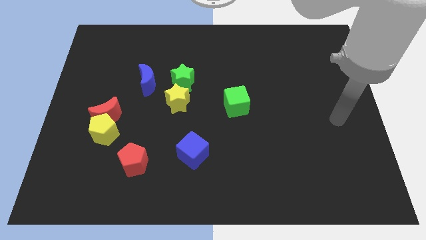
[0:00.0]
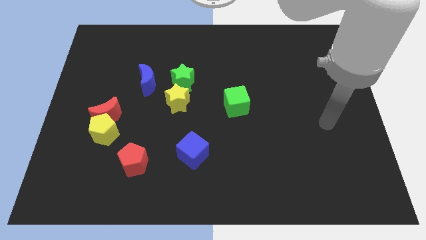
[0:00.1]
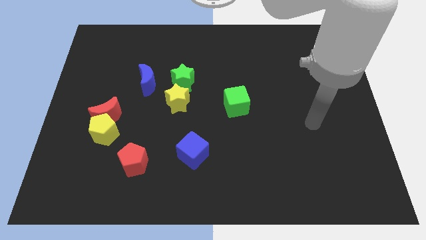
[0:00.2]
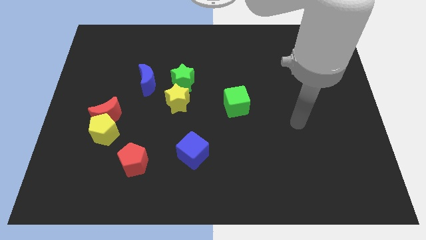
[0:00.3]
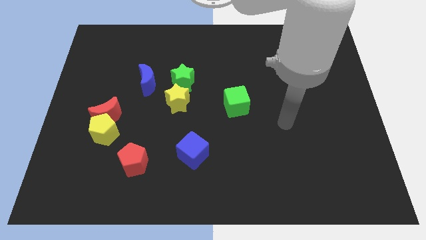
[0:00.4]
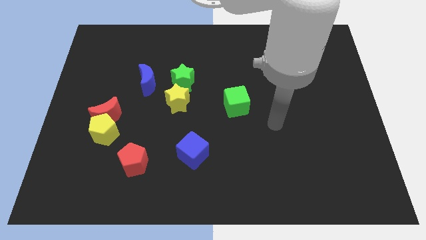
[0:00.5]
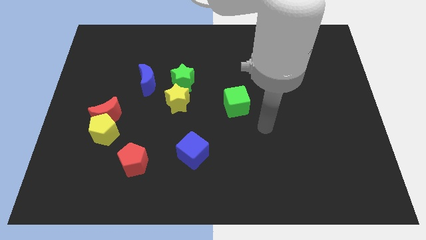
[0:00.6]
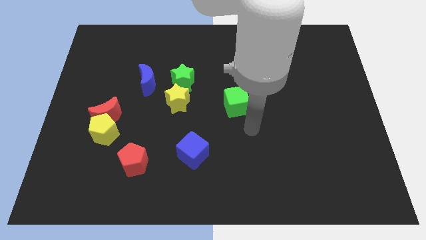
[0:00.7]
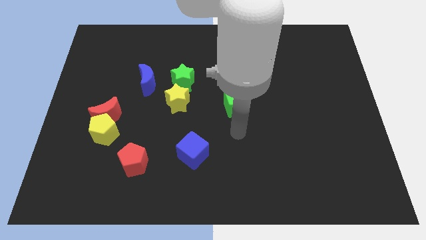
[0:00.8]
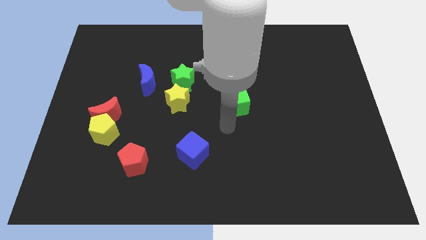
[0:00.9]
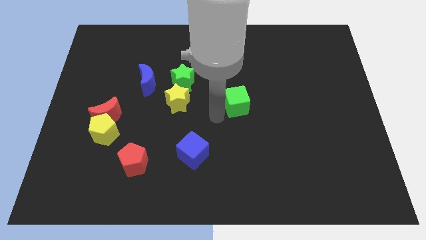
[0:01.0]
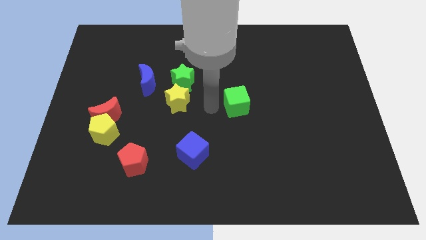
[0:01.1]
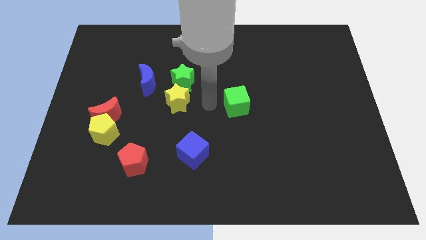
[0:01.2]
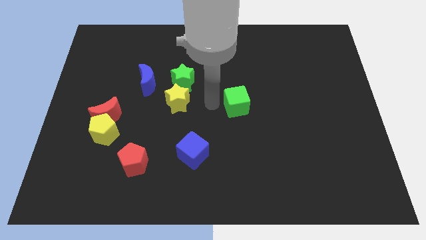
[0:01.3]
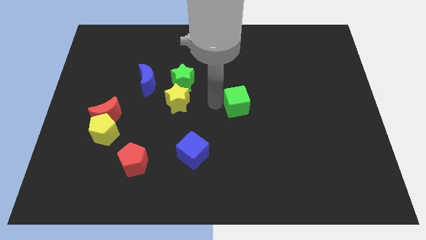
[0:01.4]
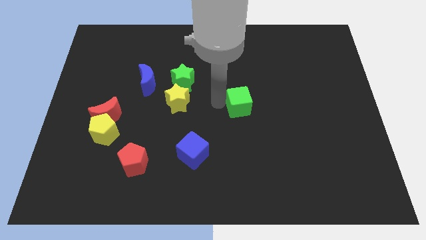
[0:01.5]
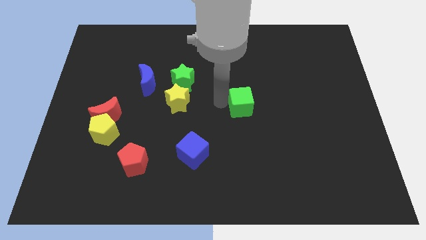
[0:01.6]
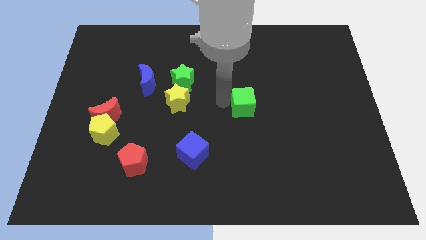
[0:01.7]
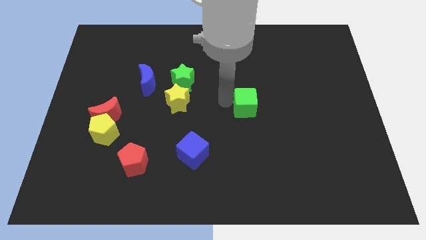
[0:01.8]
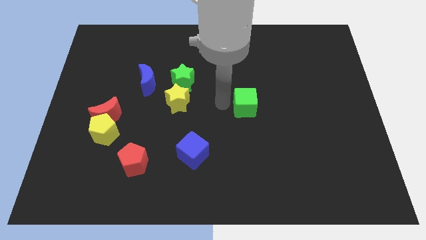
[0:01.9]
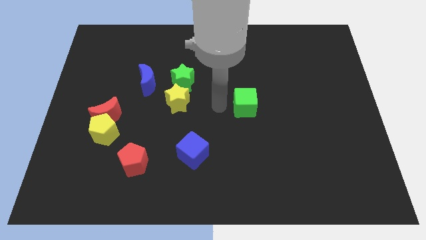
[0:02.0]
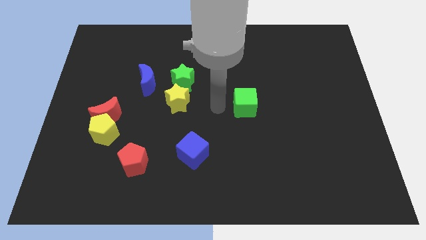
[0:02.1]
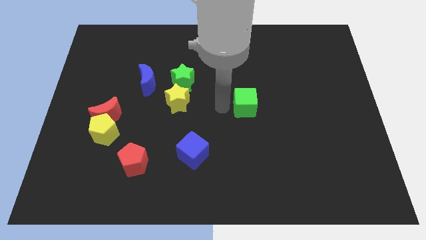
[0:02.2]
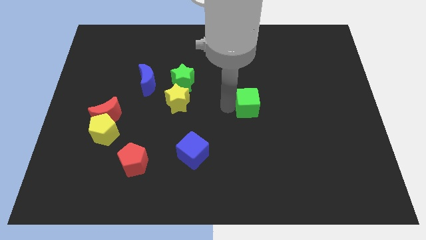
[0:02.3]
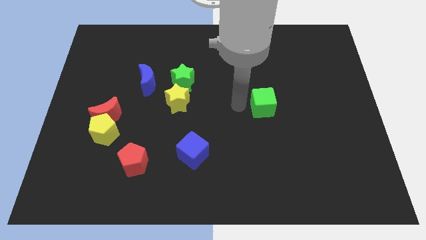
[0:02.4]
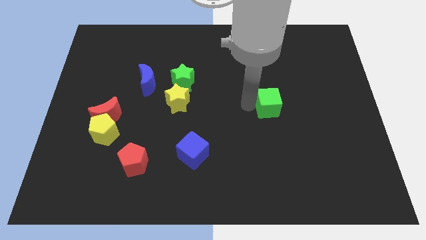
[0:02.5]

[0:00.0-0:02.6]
push the green cube slightly right

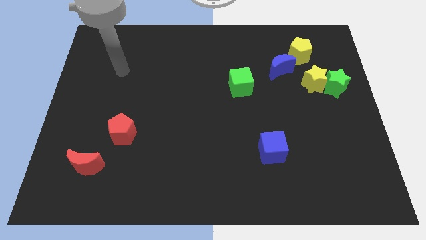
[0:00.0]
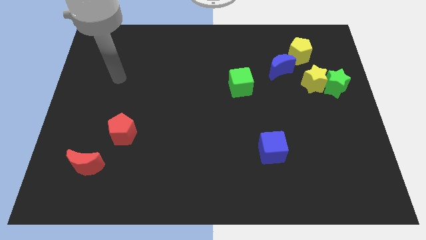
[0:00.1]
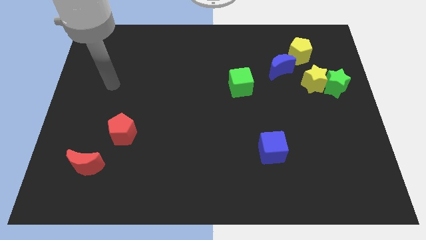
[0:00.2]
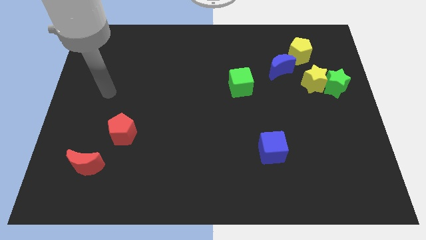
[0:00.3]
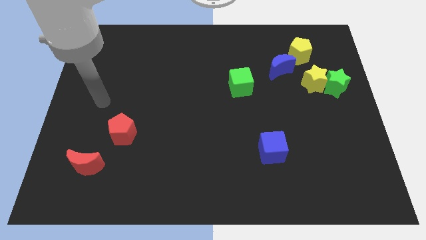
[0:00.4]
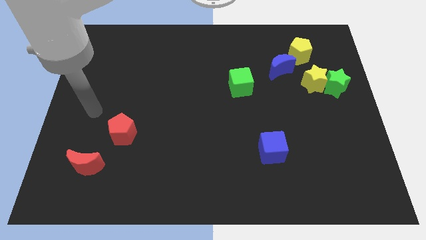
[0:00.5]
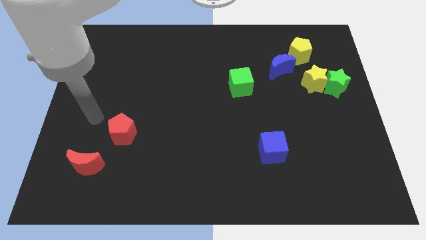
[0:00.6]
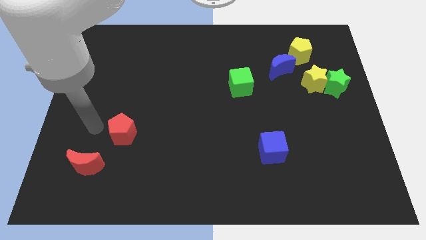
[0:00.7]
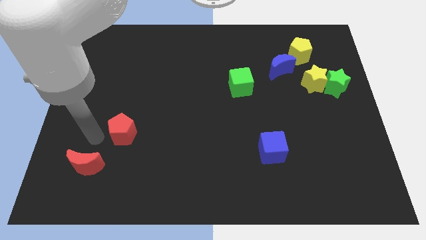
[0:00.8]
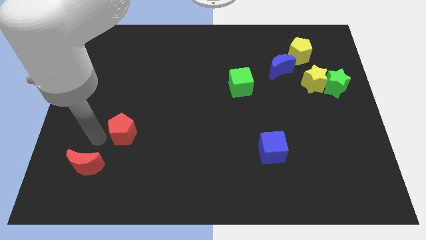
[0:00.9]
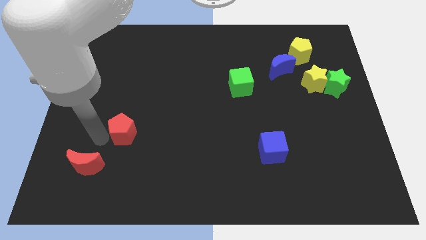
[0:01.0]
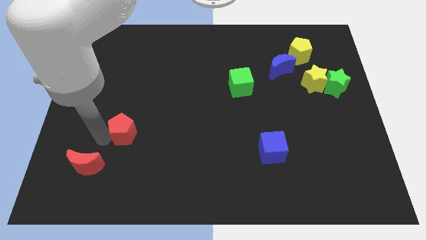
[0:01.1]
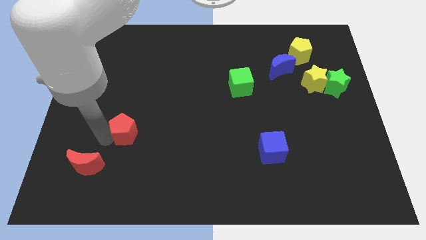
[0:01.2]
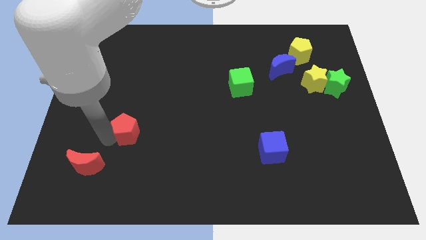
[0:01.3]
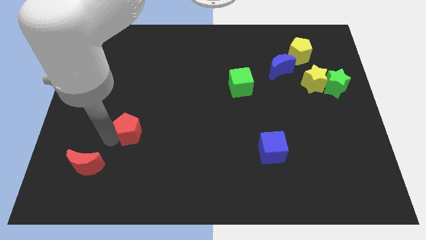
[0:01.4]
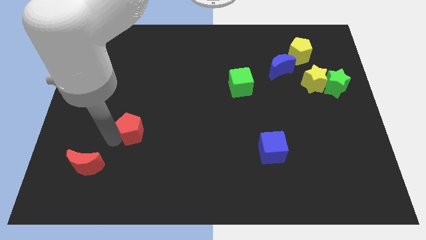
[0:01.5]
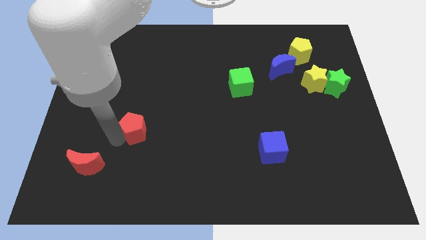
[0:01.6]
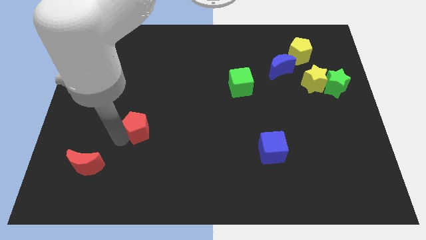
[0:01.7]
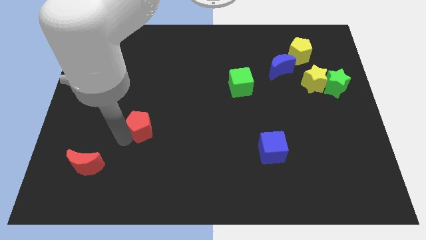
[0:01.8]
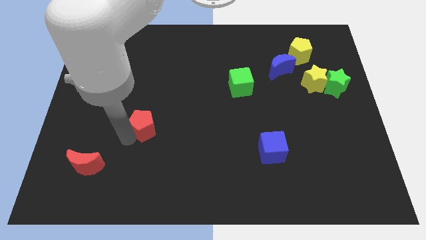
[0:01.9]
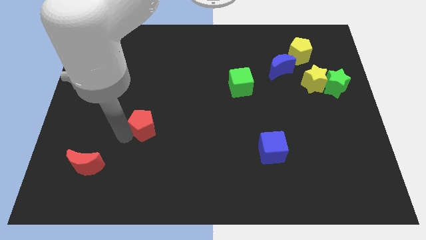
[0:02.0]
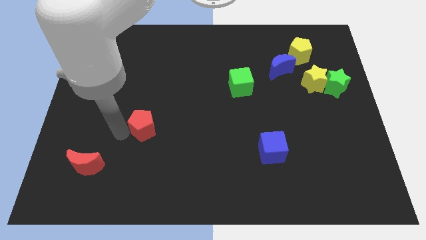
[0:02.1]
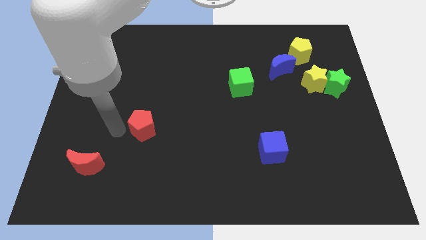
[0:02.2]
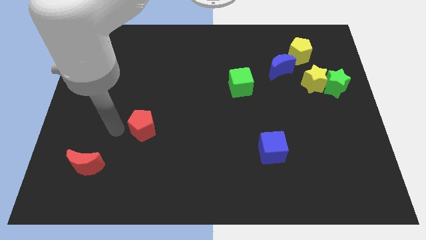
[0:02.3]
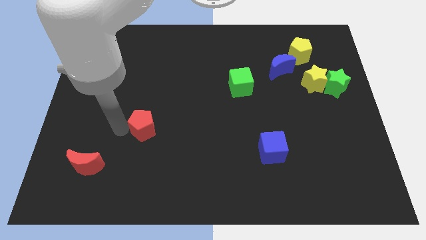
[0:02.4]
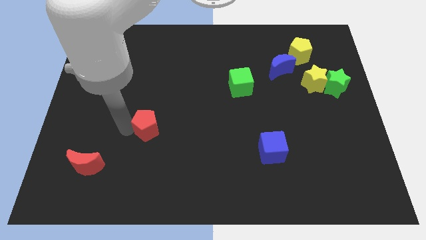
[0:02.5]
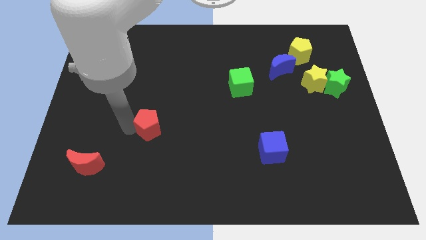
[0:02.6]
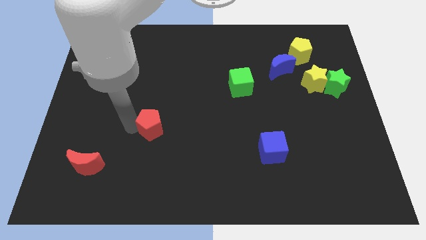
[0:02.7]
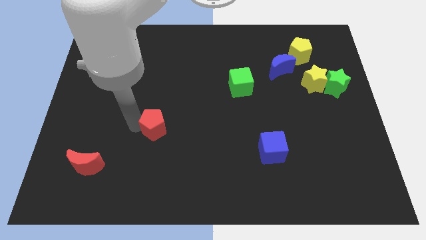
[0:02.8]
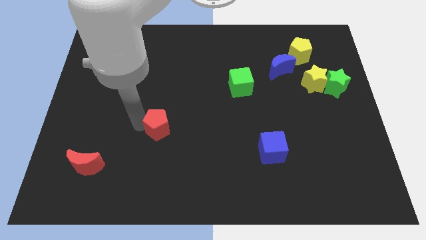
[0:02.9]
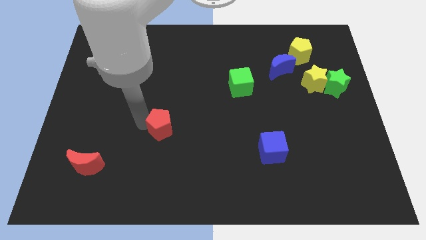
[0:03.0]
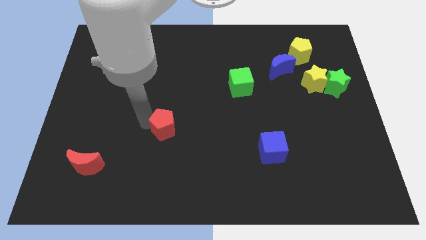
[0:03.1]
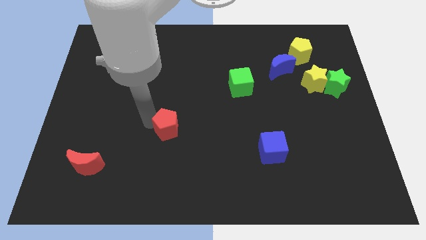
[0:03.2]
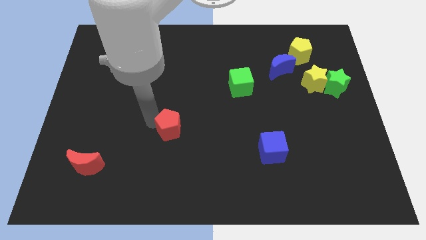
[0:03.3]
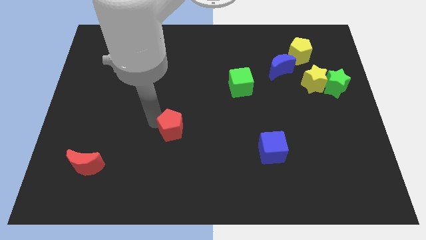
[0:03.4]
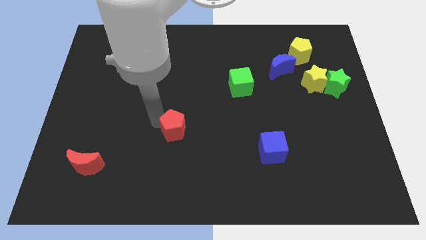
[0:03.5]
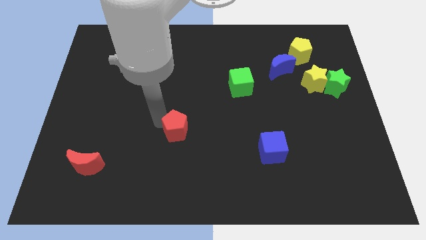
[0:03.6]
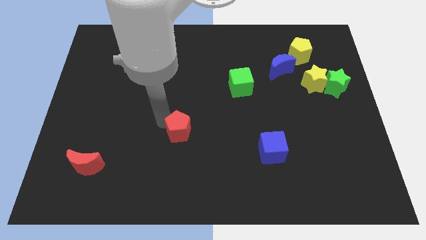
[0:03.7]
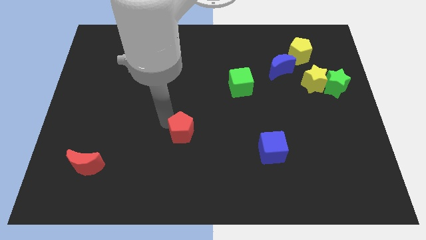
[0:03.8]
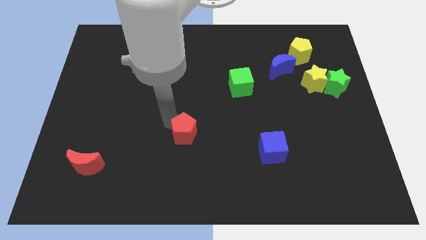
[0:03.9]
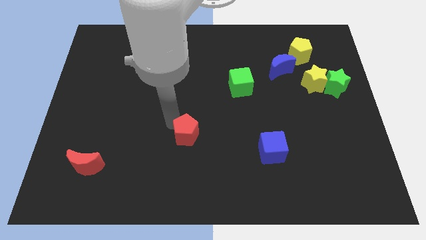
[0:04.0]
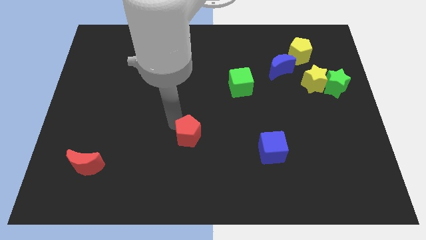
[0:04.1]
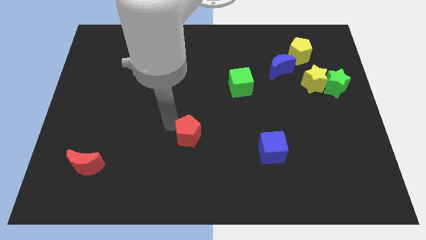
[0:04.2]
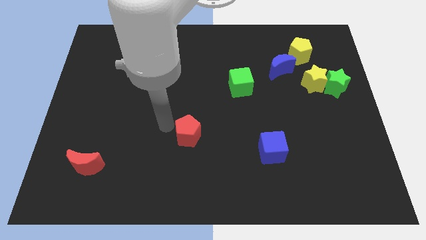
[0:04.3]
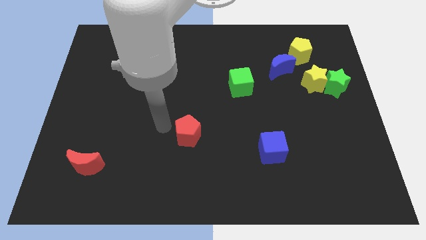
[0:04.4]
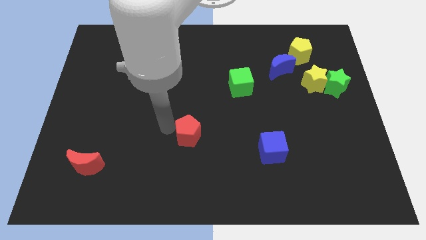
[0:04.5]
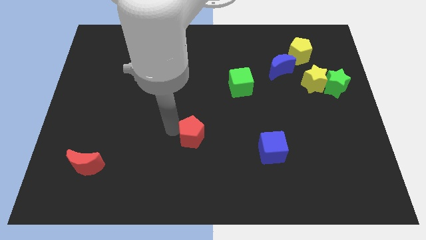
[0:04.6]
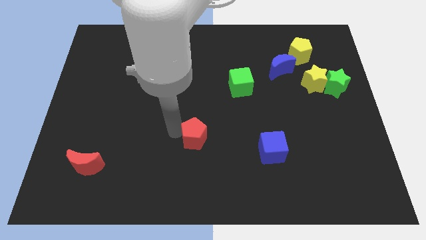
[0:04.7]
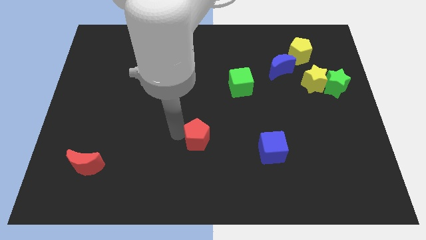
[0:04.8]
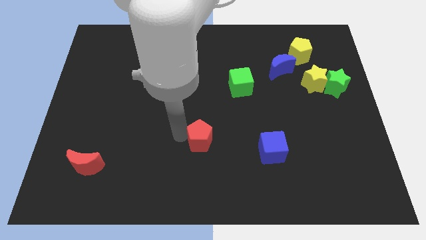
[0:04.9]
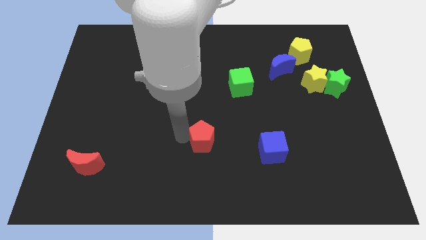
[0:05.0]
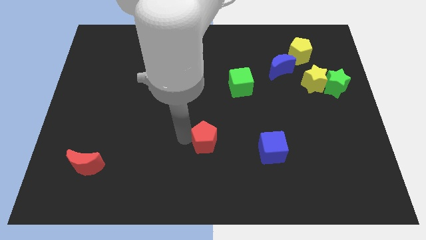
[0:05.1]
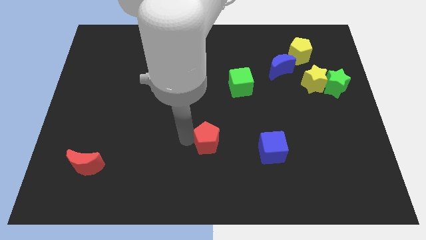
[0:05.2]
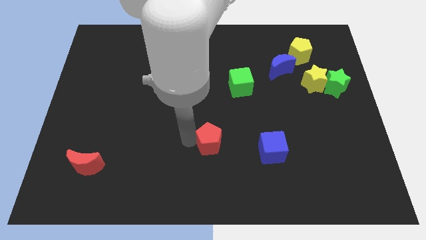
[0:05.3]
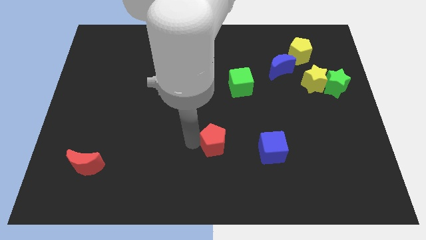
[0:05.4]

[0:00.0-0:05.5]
push the red pentagon right
